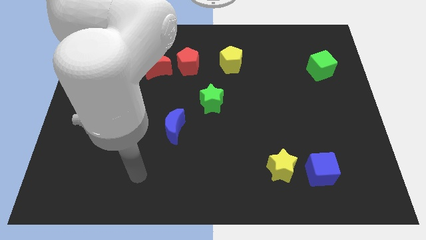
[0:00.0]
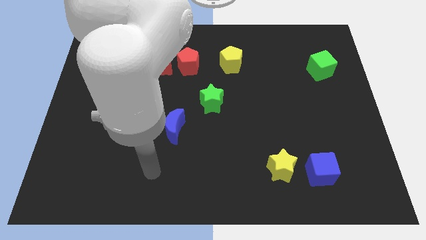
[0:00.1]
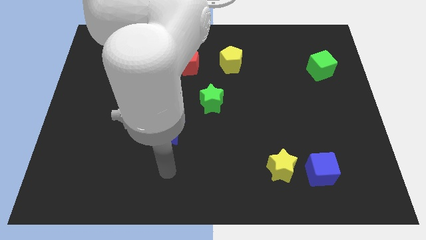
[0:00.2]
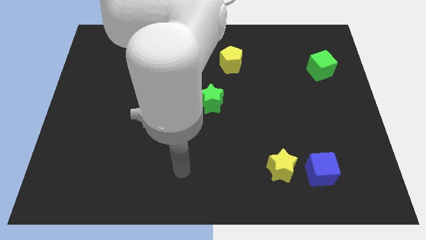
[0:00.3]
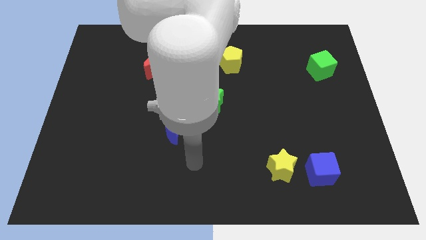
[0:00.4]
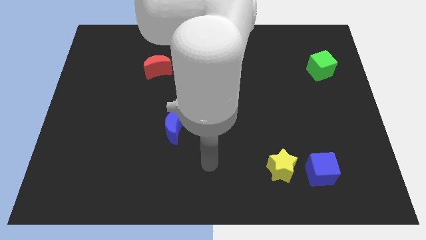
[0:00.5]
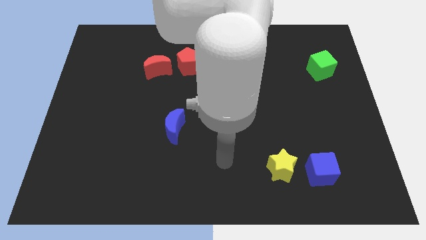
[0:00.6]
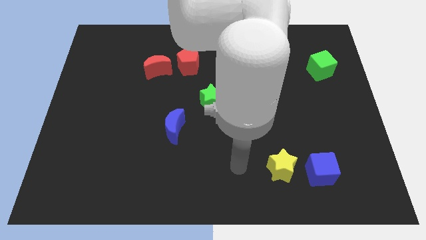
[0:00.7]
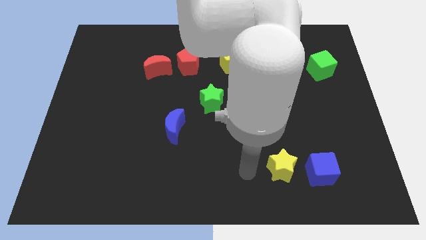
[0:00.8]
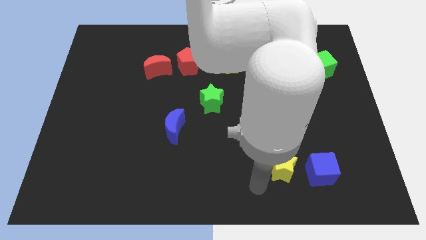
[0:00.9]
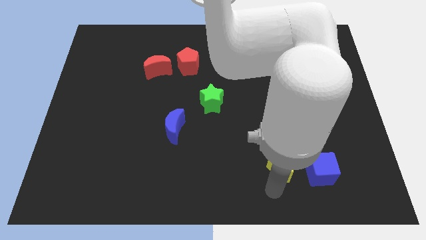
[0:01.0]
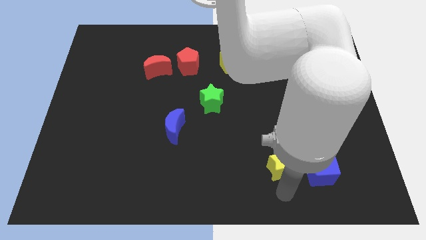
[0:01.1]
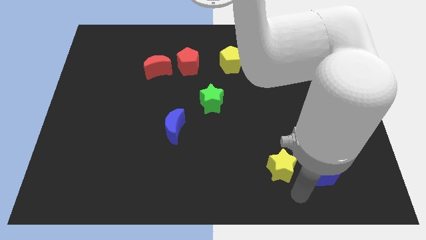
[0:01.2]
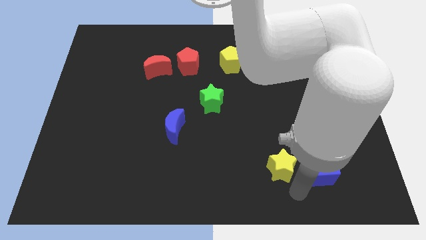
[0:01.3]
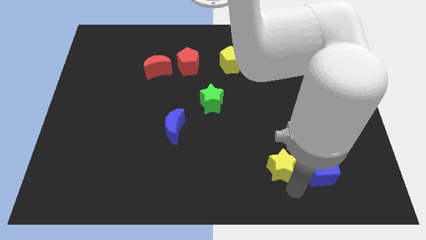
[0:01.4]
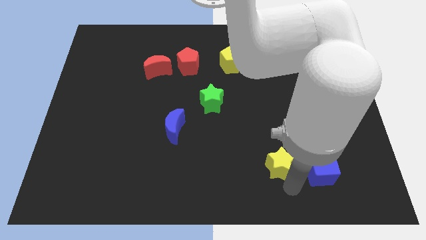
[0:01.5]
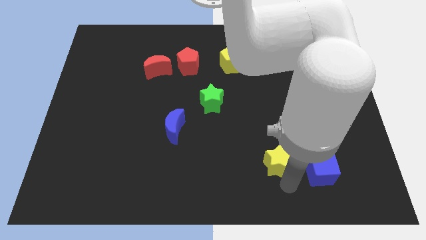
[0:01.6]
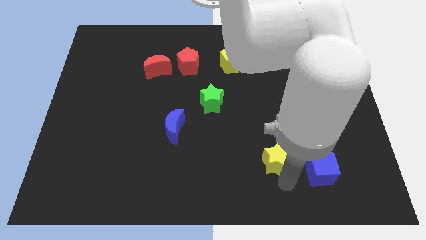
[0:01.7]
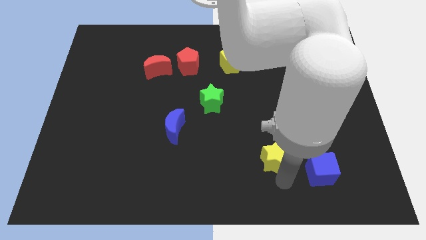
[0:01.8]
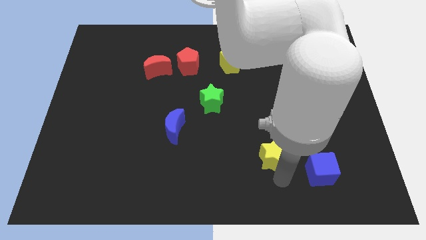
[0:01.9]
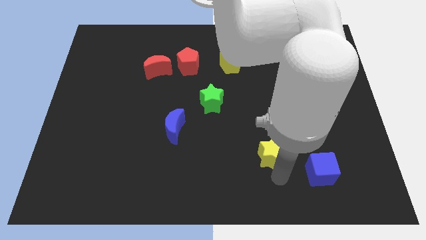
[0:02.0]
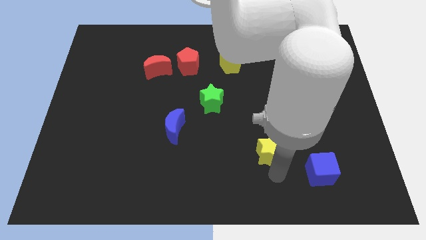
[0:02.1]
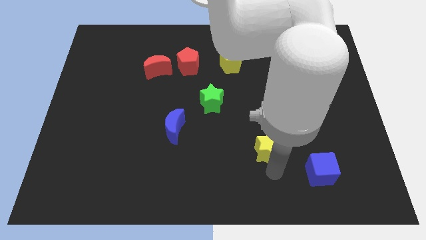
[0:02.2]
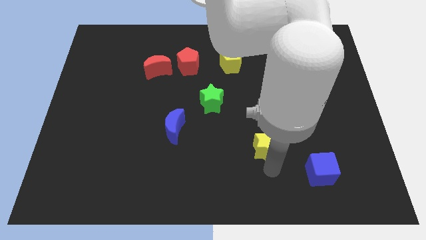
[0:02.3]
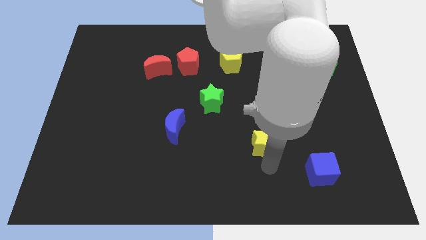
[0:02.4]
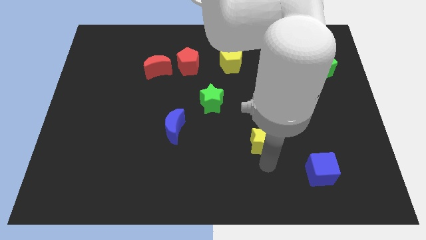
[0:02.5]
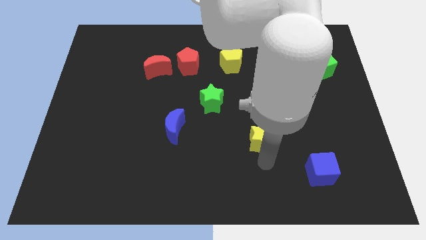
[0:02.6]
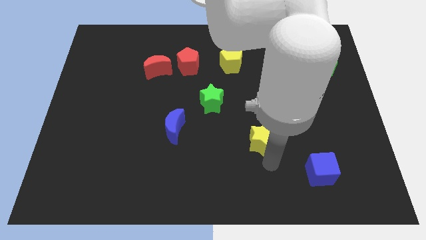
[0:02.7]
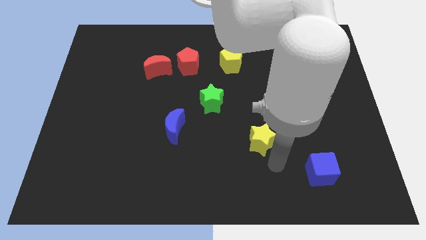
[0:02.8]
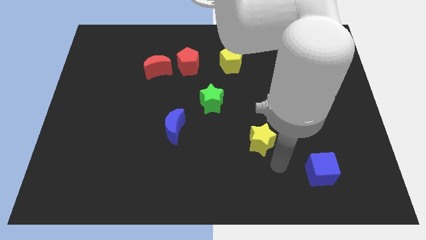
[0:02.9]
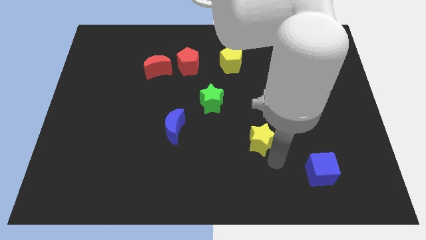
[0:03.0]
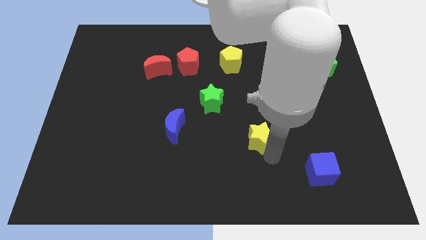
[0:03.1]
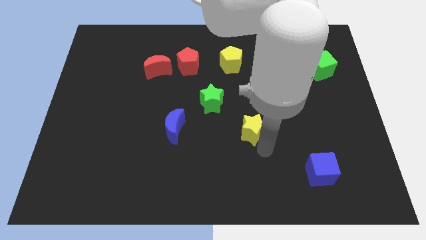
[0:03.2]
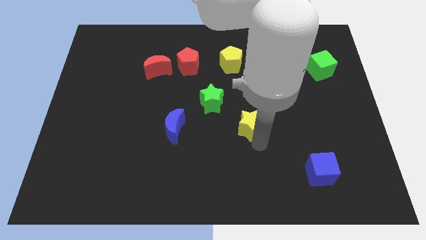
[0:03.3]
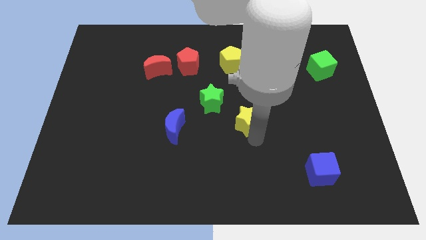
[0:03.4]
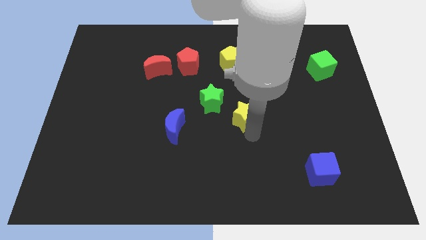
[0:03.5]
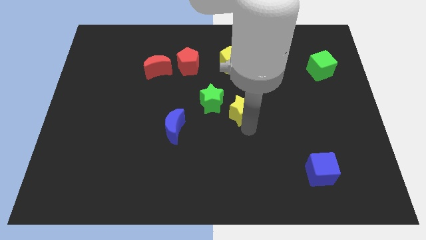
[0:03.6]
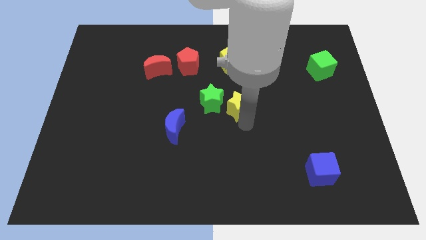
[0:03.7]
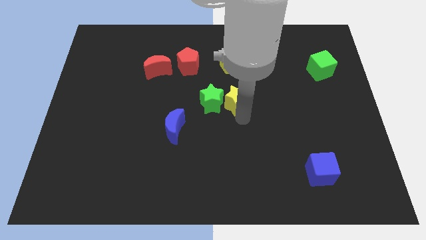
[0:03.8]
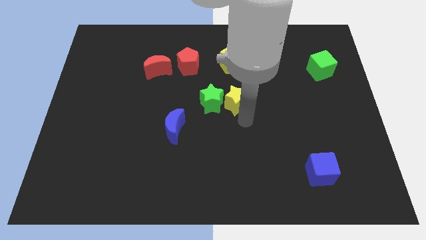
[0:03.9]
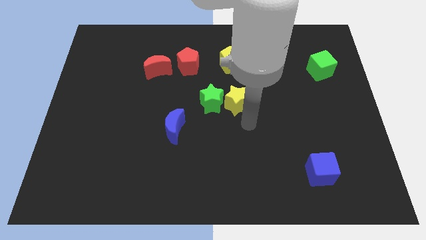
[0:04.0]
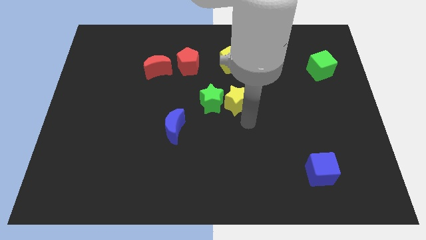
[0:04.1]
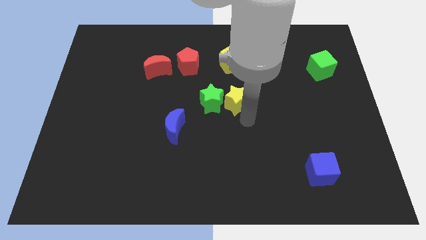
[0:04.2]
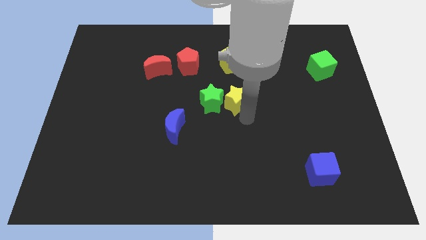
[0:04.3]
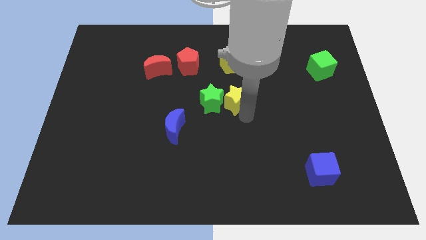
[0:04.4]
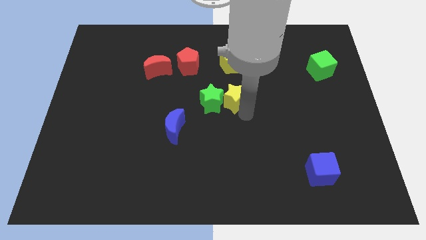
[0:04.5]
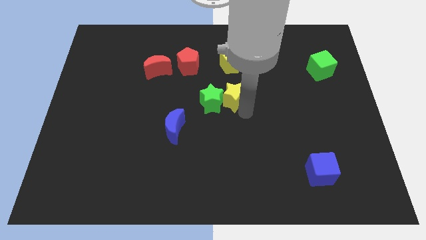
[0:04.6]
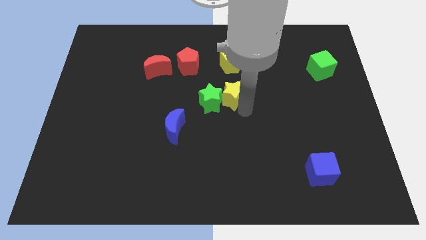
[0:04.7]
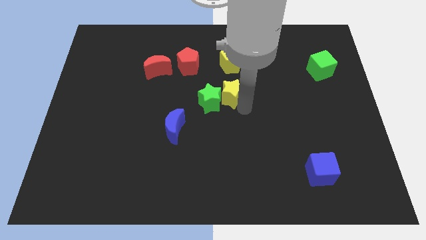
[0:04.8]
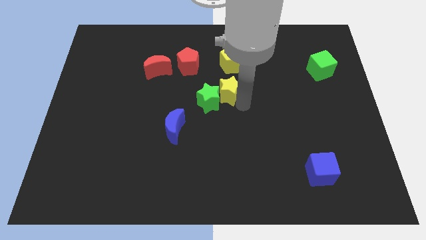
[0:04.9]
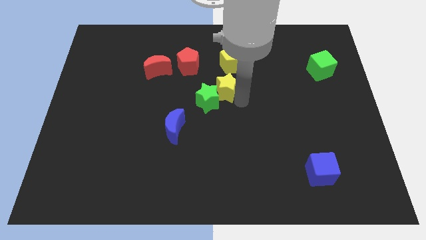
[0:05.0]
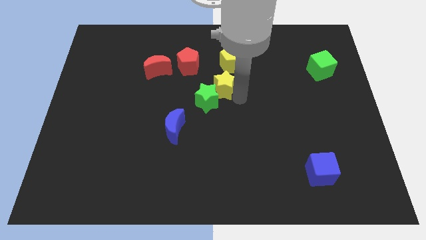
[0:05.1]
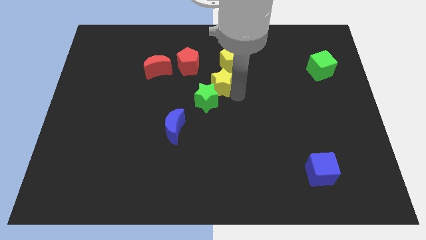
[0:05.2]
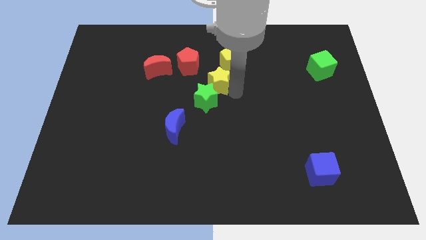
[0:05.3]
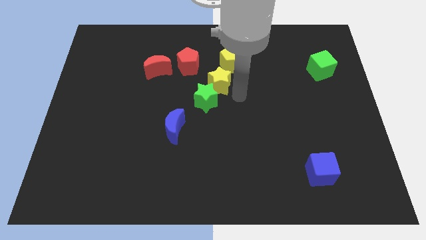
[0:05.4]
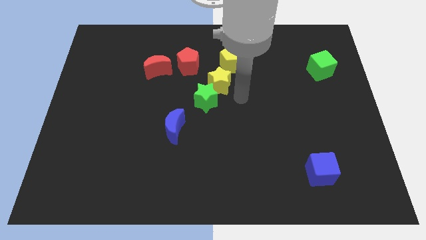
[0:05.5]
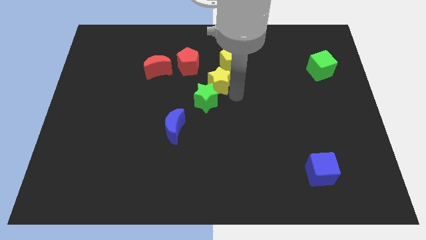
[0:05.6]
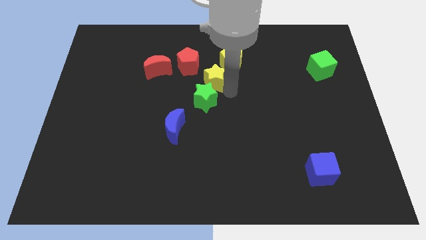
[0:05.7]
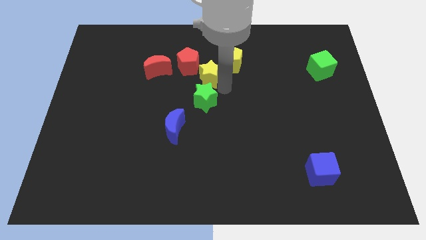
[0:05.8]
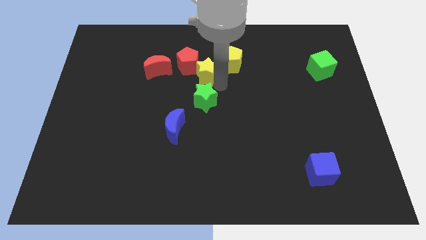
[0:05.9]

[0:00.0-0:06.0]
move the yellow star next to the red pentagon

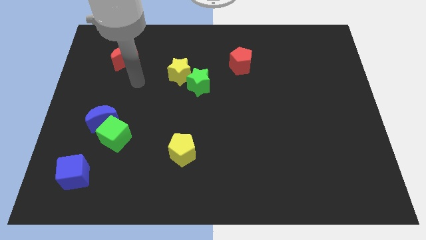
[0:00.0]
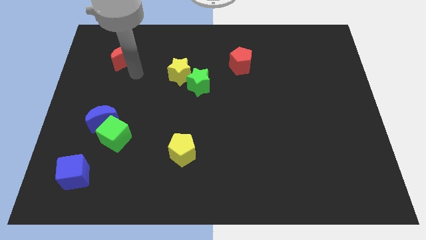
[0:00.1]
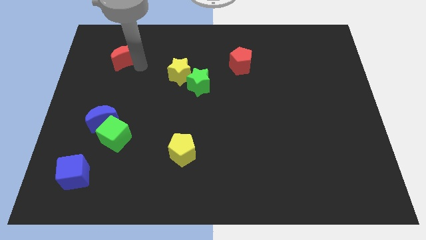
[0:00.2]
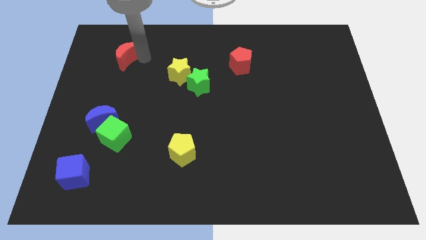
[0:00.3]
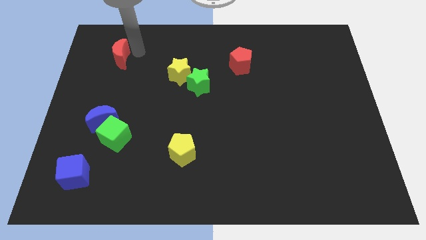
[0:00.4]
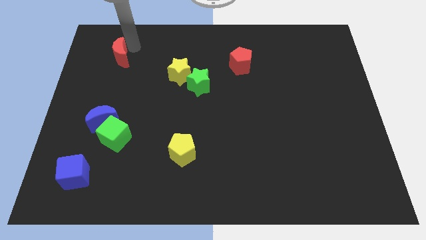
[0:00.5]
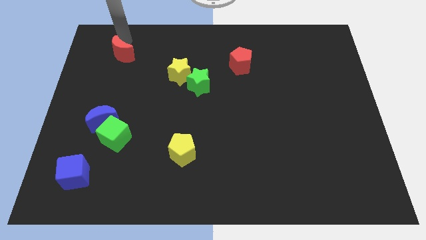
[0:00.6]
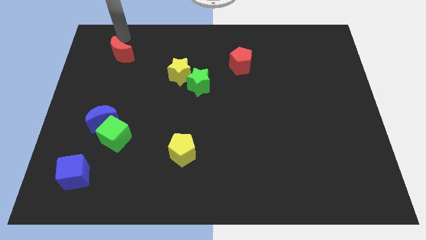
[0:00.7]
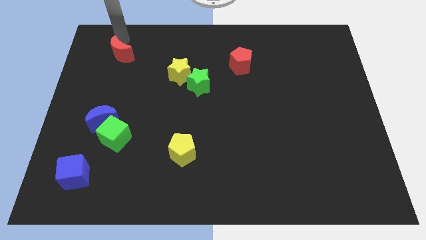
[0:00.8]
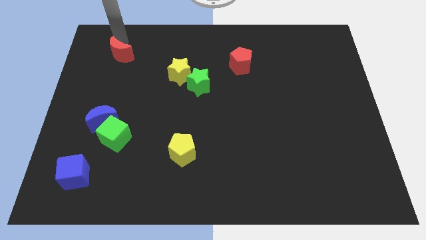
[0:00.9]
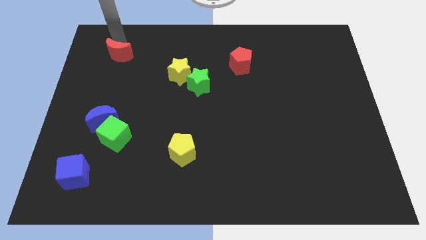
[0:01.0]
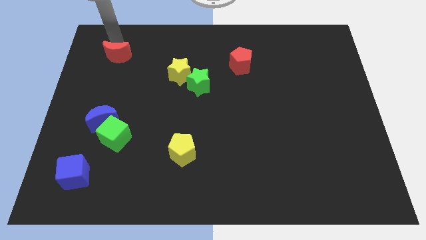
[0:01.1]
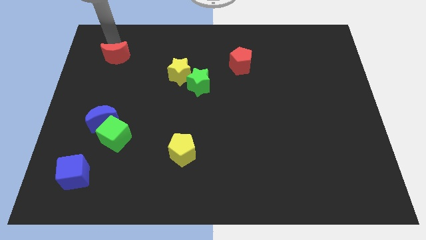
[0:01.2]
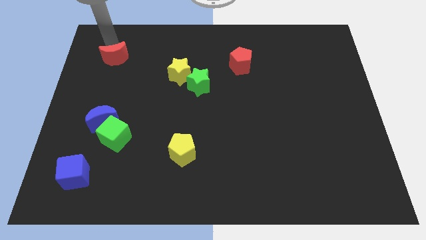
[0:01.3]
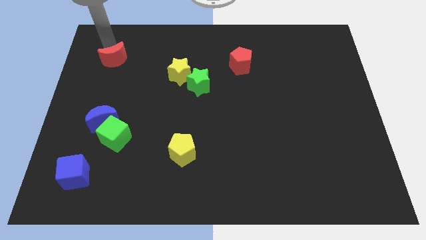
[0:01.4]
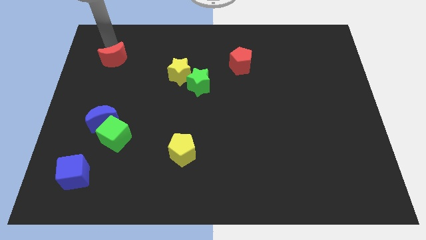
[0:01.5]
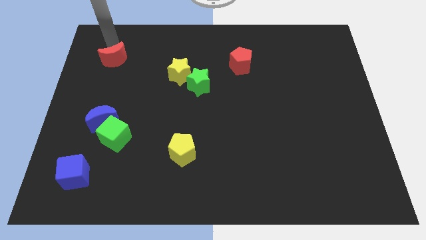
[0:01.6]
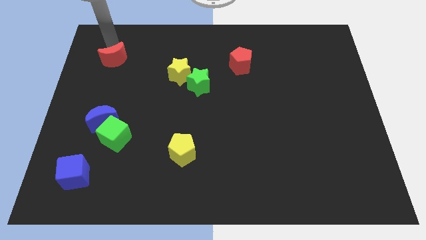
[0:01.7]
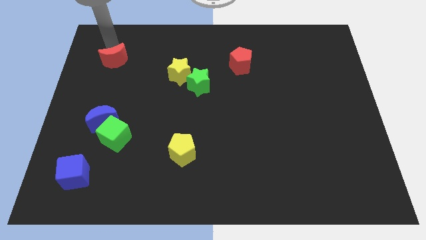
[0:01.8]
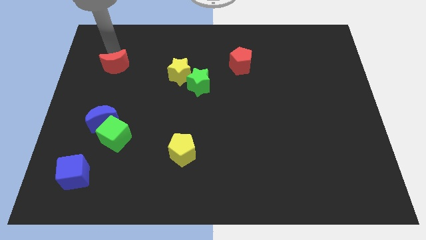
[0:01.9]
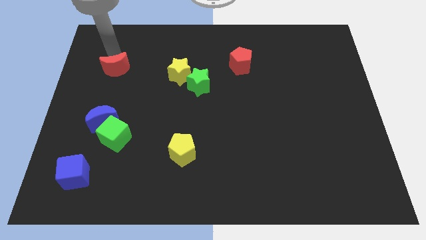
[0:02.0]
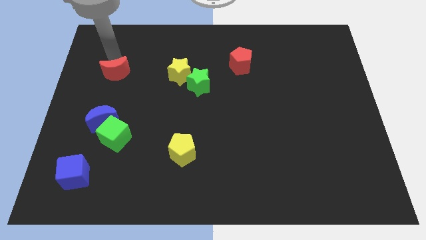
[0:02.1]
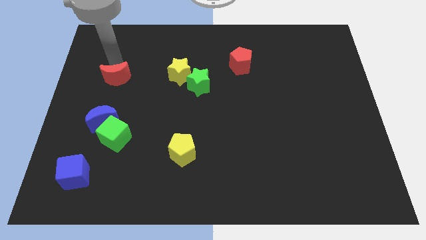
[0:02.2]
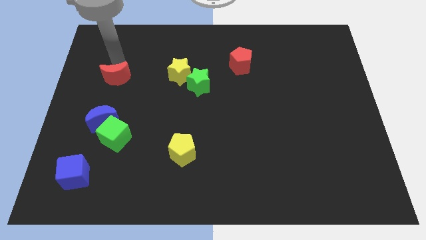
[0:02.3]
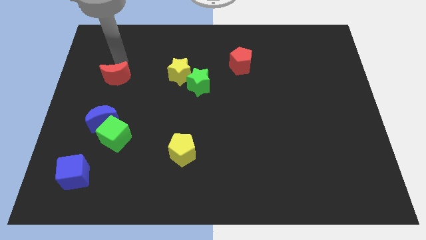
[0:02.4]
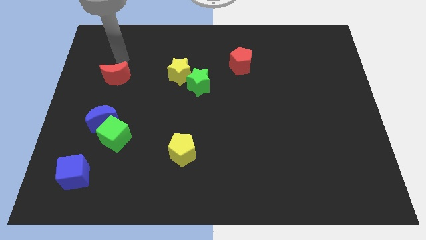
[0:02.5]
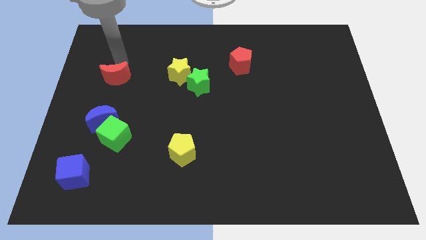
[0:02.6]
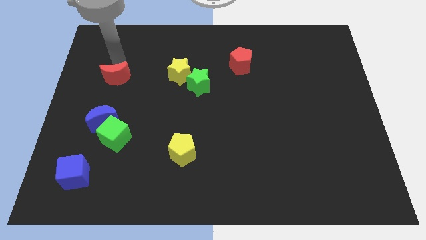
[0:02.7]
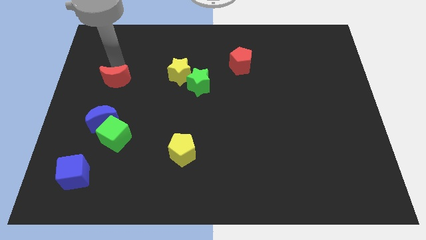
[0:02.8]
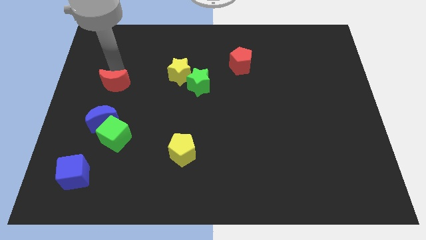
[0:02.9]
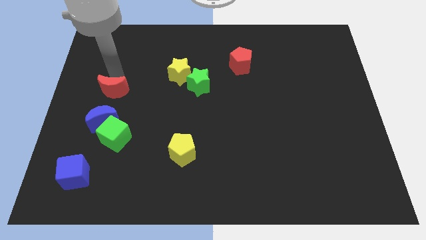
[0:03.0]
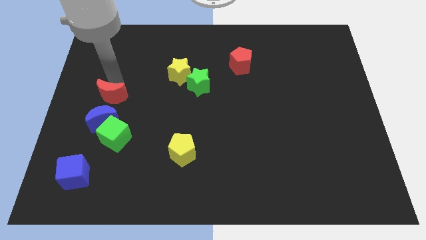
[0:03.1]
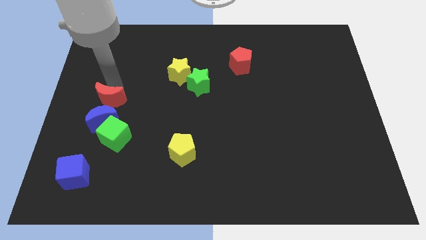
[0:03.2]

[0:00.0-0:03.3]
move the red moon towards the blue moon
